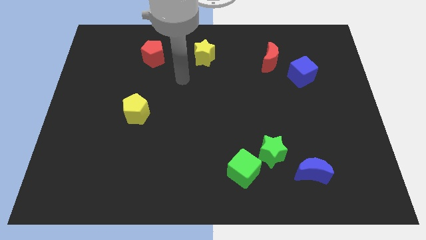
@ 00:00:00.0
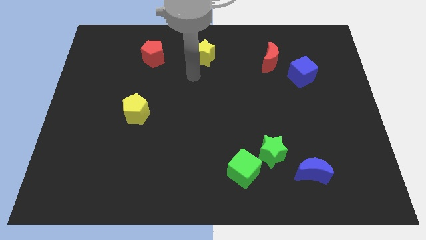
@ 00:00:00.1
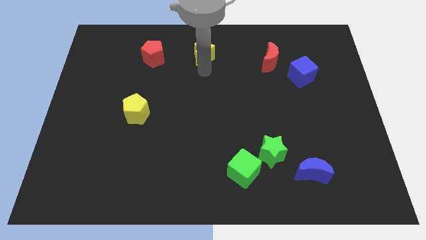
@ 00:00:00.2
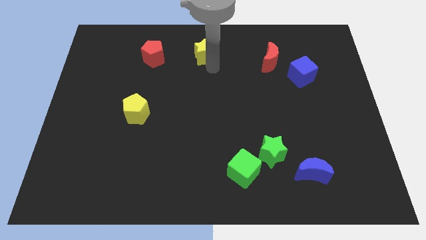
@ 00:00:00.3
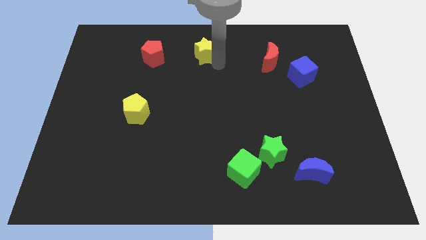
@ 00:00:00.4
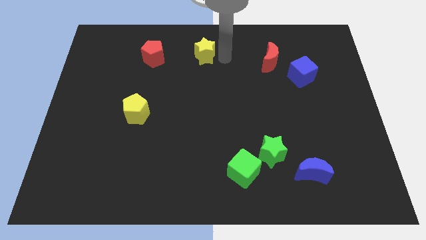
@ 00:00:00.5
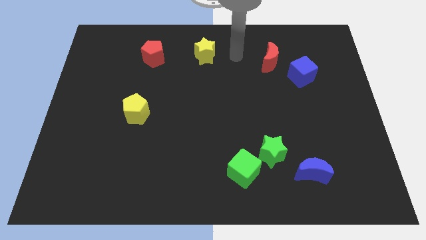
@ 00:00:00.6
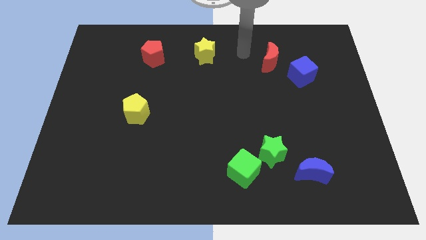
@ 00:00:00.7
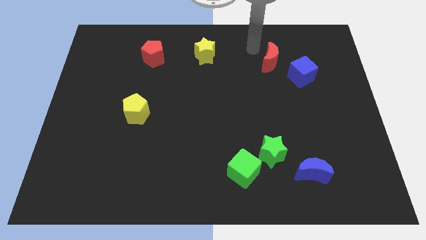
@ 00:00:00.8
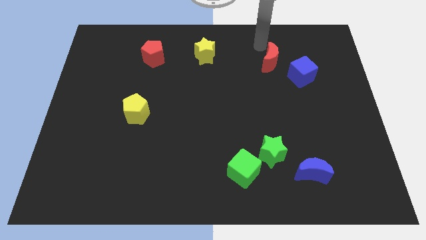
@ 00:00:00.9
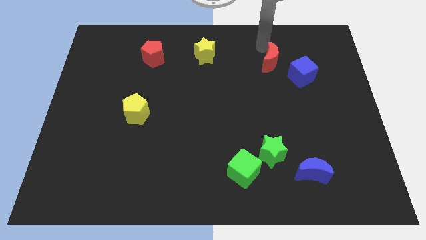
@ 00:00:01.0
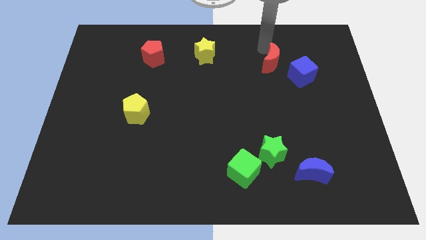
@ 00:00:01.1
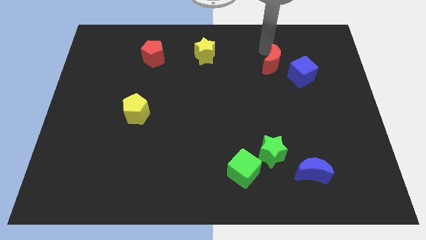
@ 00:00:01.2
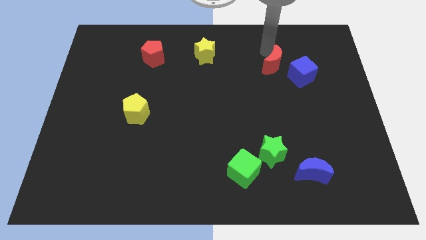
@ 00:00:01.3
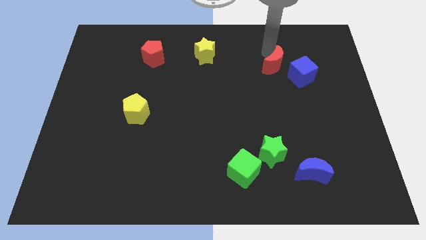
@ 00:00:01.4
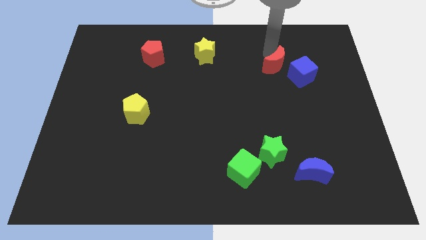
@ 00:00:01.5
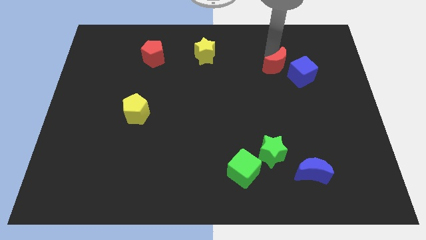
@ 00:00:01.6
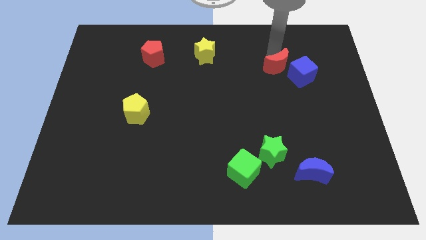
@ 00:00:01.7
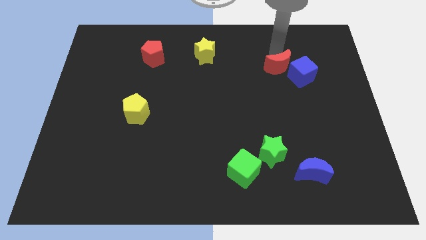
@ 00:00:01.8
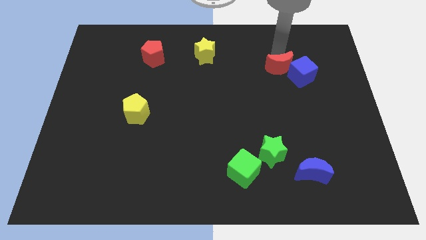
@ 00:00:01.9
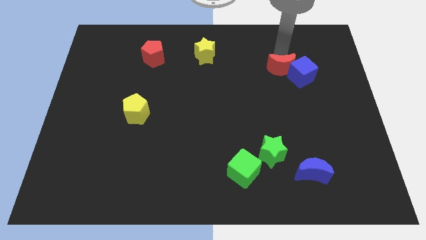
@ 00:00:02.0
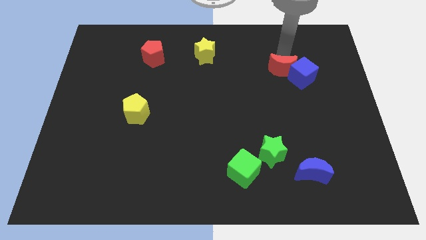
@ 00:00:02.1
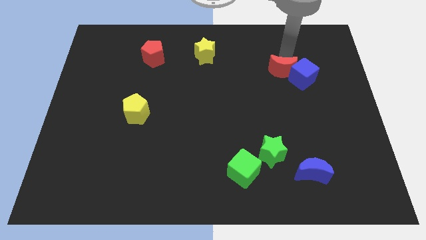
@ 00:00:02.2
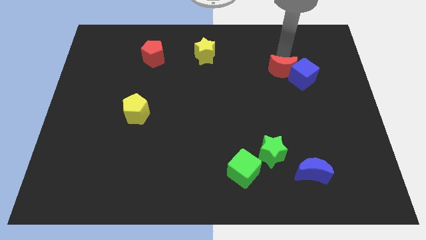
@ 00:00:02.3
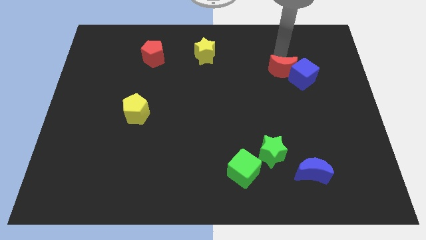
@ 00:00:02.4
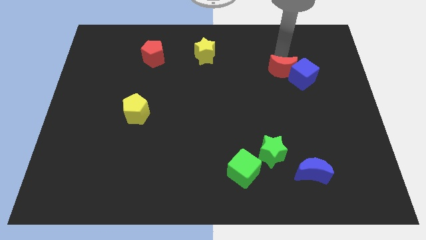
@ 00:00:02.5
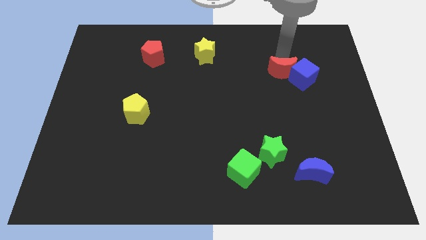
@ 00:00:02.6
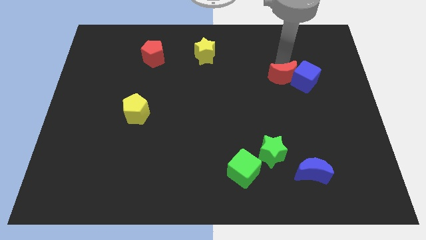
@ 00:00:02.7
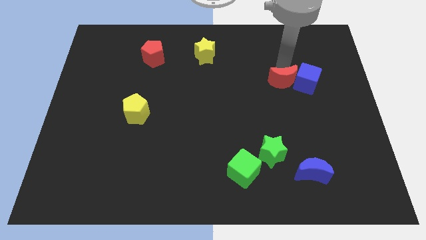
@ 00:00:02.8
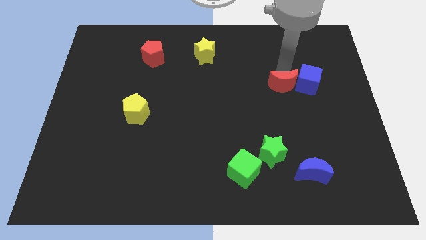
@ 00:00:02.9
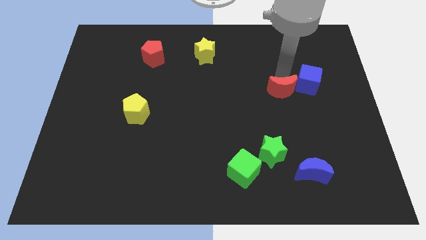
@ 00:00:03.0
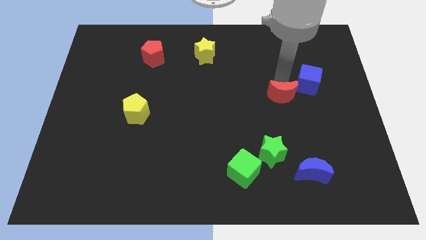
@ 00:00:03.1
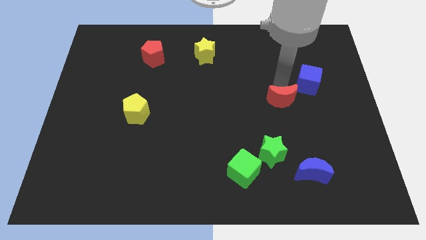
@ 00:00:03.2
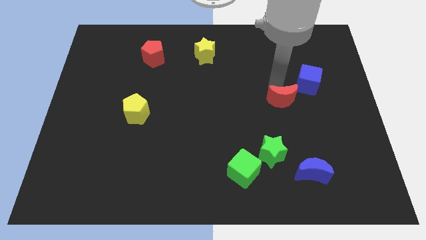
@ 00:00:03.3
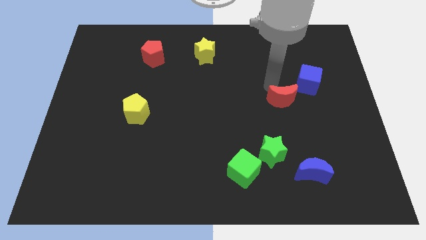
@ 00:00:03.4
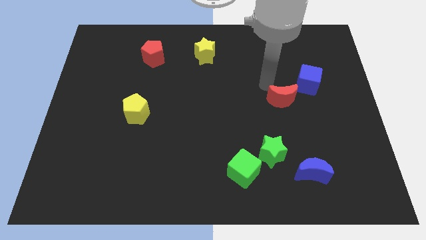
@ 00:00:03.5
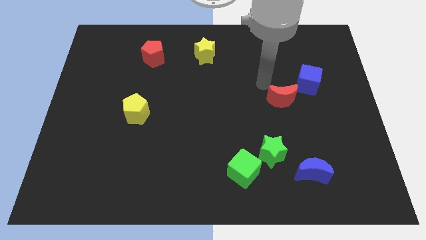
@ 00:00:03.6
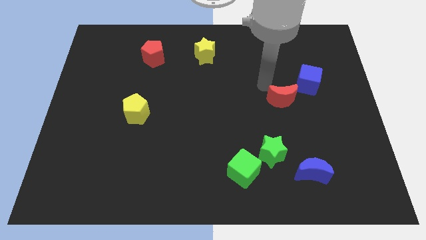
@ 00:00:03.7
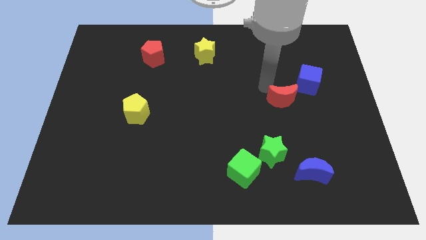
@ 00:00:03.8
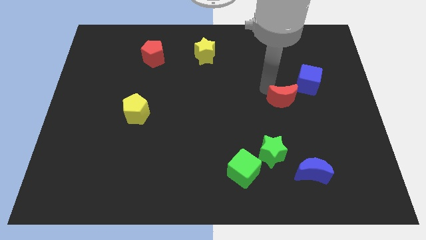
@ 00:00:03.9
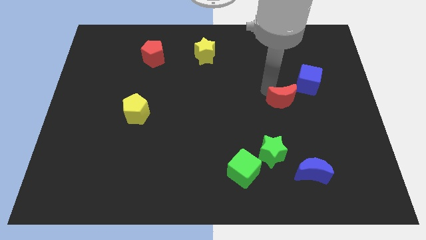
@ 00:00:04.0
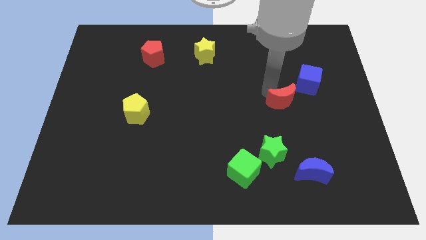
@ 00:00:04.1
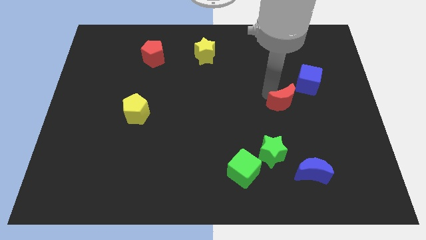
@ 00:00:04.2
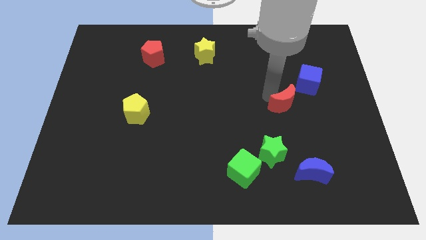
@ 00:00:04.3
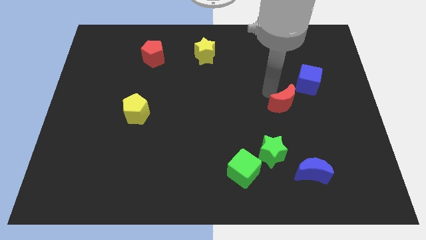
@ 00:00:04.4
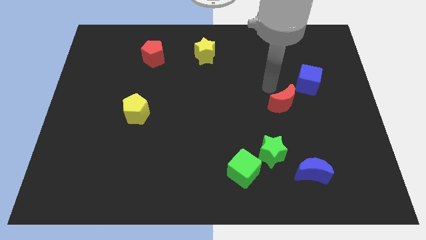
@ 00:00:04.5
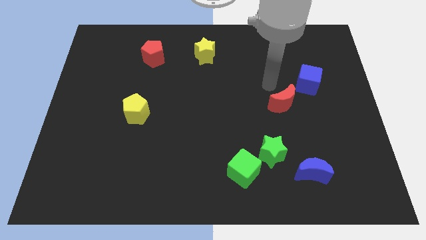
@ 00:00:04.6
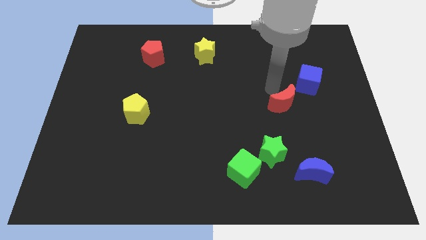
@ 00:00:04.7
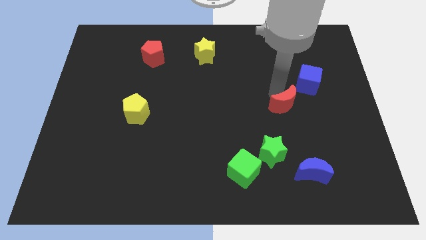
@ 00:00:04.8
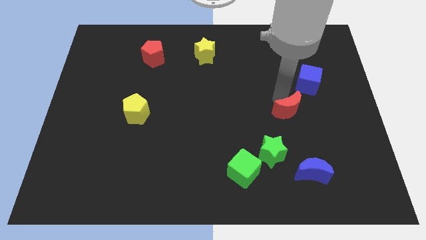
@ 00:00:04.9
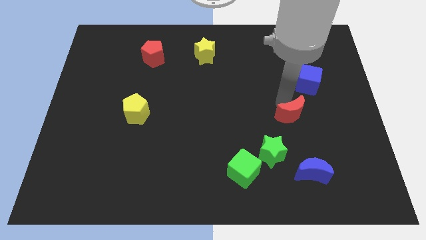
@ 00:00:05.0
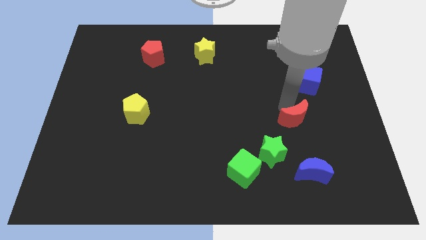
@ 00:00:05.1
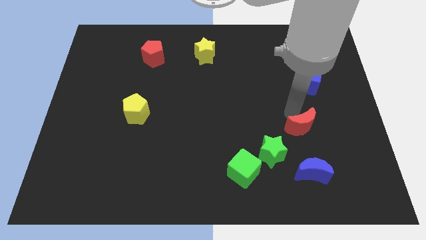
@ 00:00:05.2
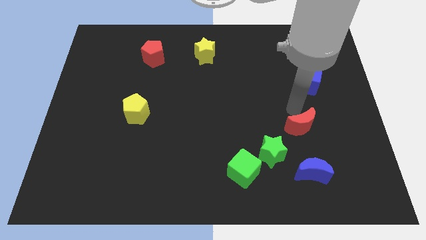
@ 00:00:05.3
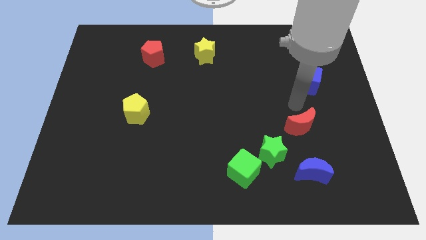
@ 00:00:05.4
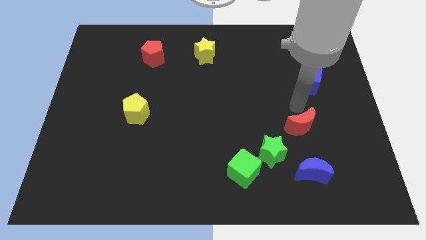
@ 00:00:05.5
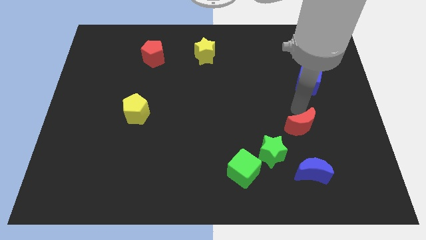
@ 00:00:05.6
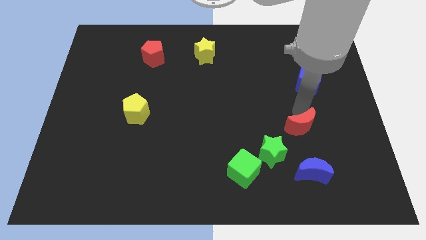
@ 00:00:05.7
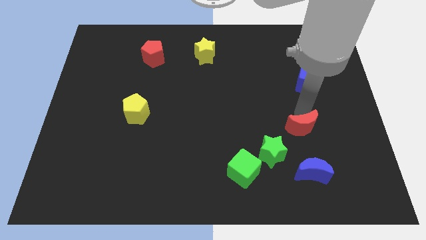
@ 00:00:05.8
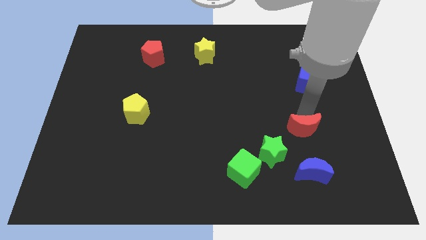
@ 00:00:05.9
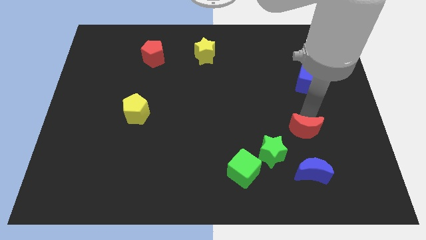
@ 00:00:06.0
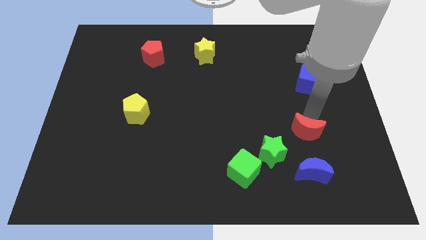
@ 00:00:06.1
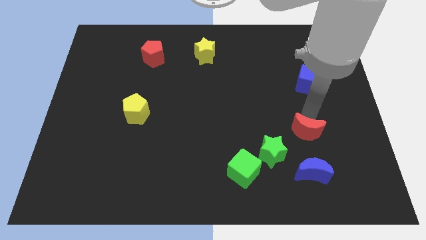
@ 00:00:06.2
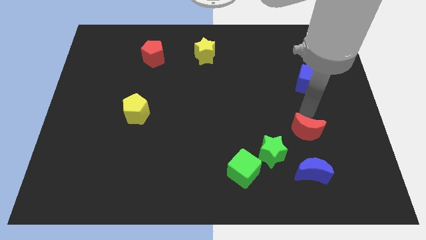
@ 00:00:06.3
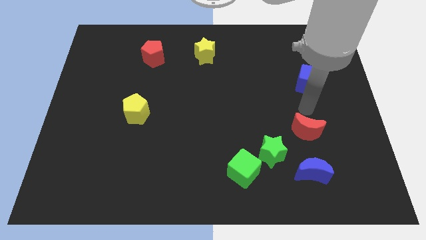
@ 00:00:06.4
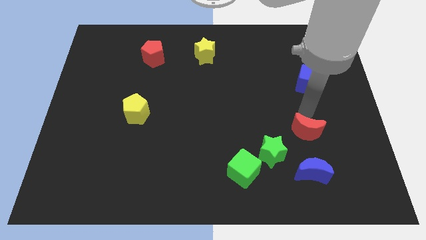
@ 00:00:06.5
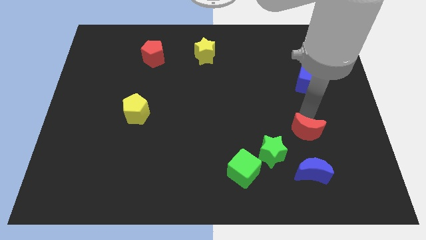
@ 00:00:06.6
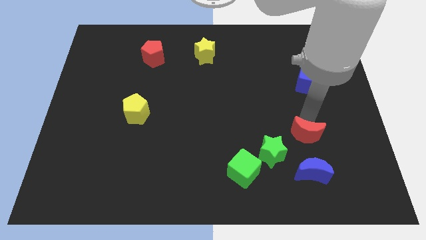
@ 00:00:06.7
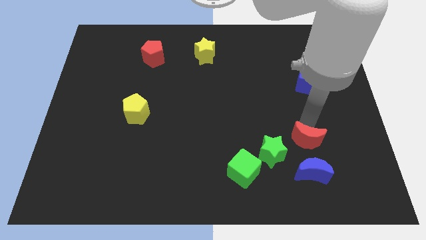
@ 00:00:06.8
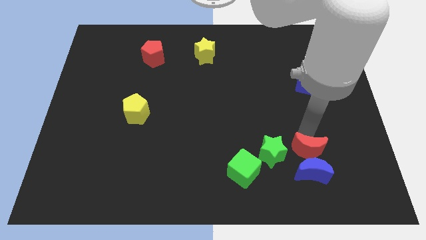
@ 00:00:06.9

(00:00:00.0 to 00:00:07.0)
push the red moon next to the blue moon
